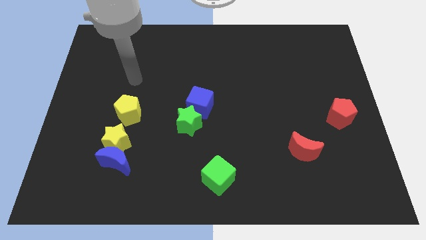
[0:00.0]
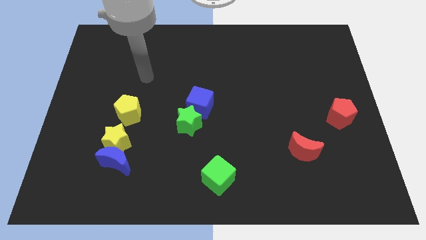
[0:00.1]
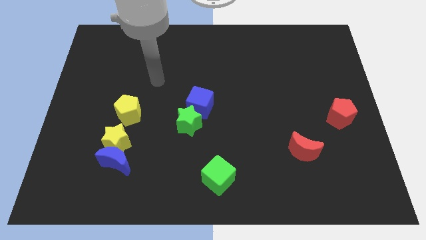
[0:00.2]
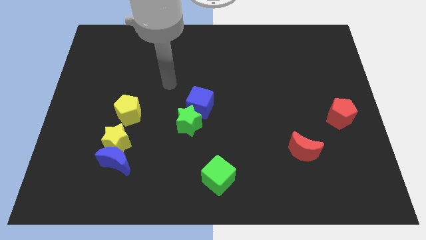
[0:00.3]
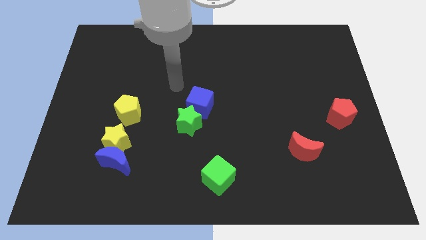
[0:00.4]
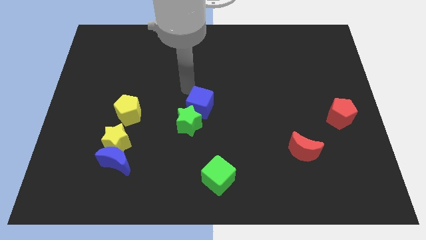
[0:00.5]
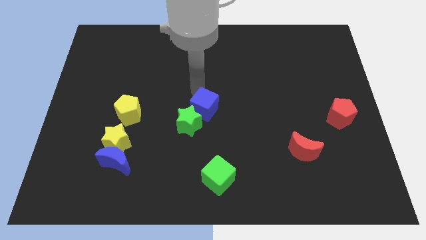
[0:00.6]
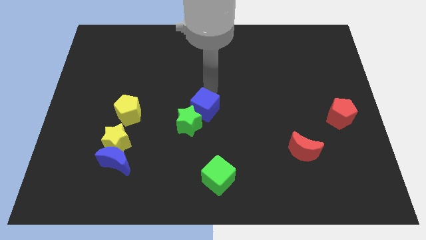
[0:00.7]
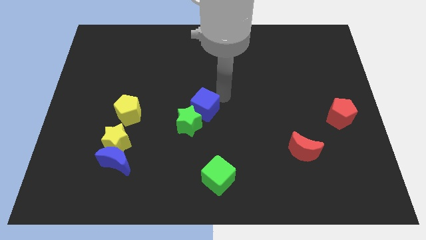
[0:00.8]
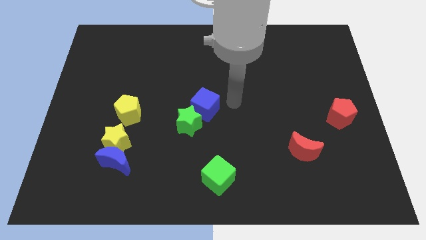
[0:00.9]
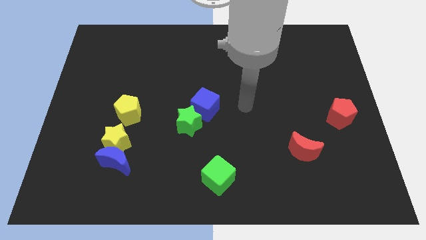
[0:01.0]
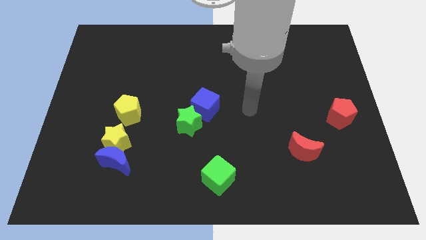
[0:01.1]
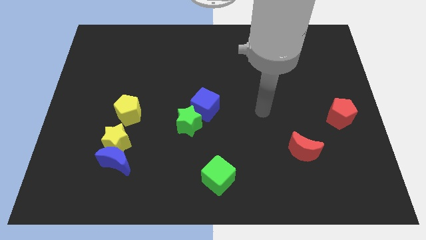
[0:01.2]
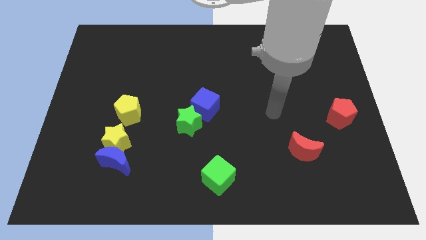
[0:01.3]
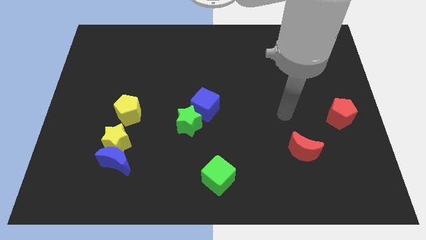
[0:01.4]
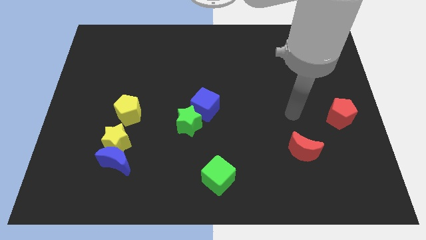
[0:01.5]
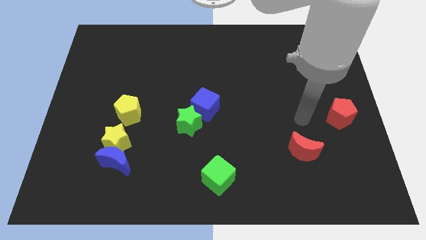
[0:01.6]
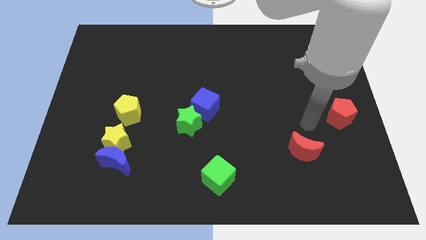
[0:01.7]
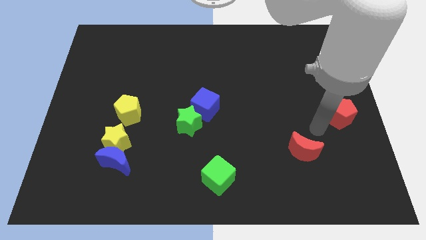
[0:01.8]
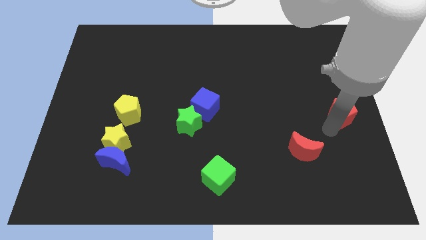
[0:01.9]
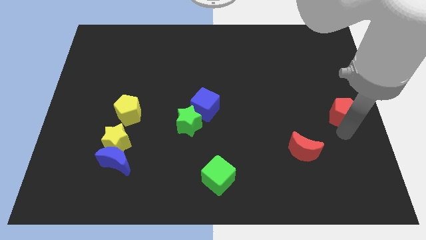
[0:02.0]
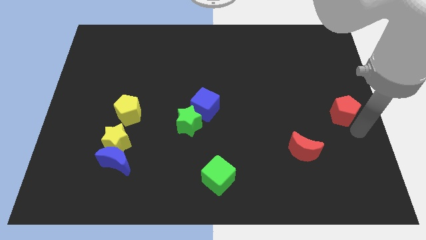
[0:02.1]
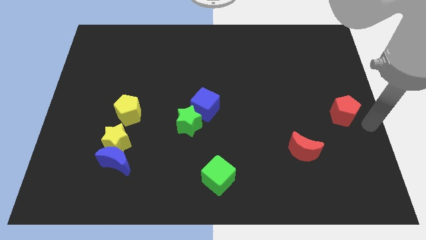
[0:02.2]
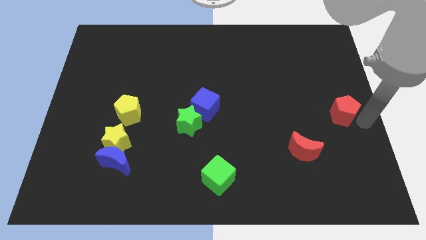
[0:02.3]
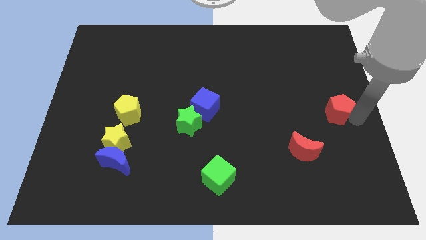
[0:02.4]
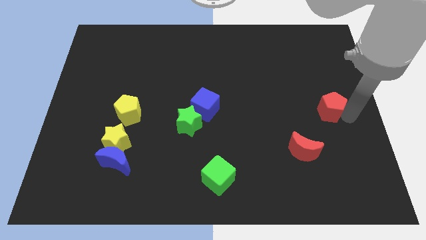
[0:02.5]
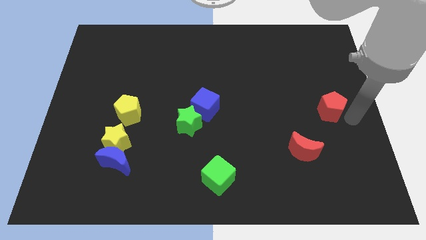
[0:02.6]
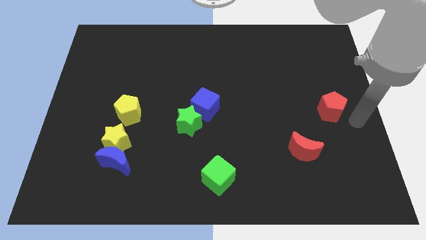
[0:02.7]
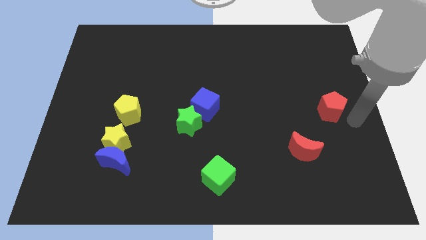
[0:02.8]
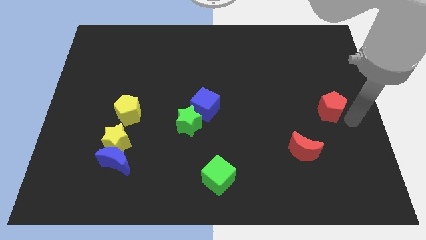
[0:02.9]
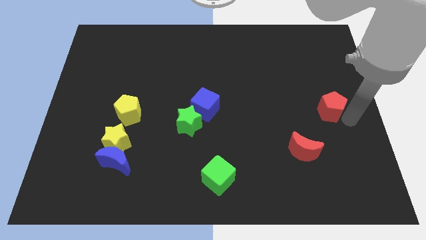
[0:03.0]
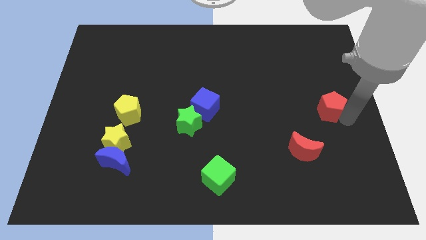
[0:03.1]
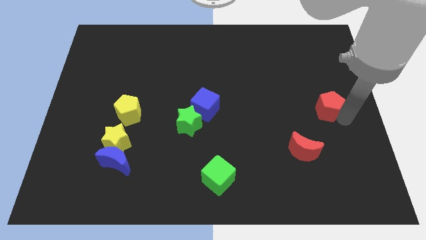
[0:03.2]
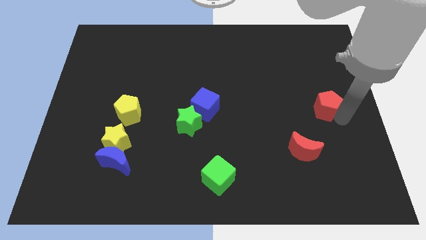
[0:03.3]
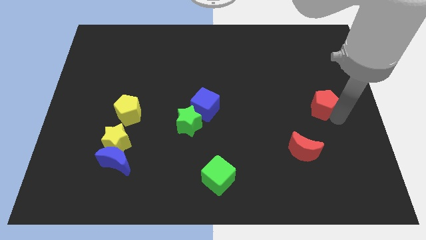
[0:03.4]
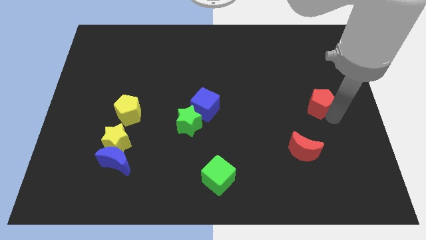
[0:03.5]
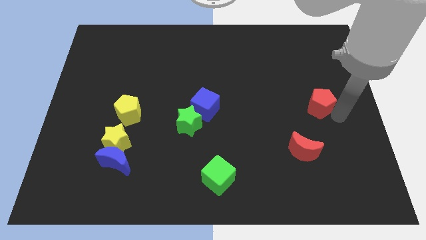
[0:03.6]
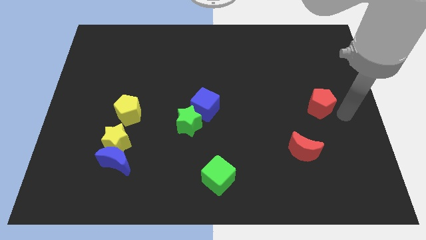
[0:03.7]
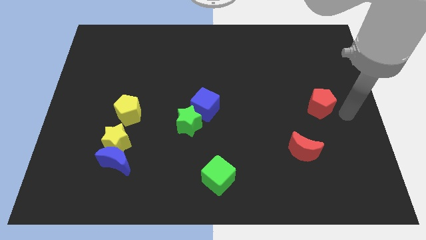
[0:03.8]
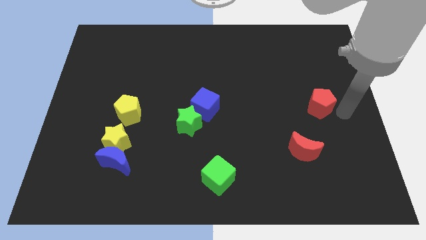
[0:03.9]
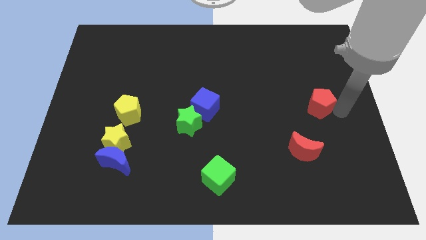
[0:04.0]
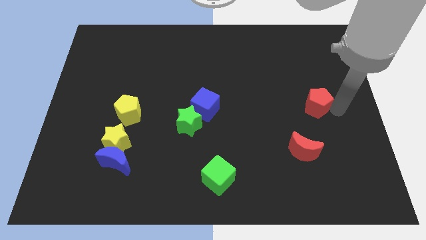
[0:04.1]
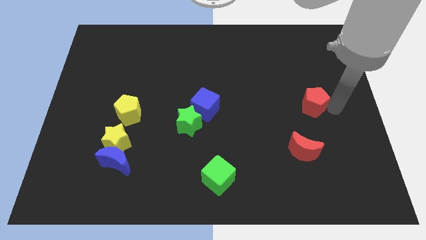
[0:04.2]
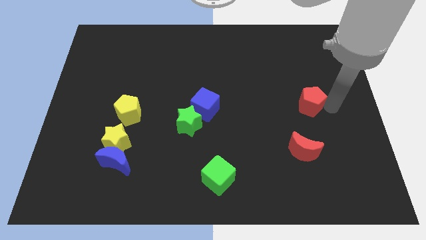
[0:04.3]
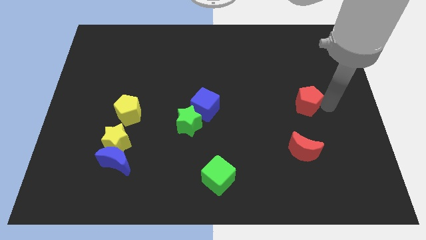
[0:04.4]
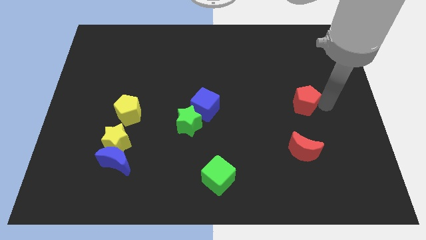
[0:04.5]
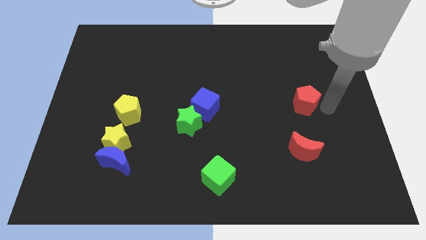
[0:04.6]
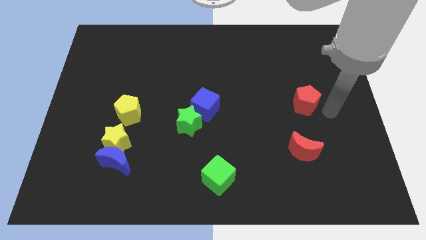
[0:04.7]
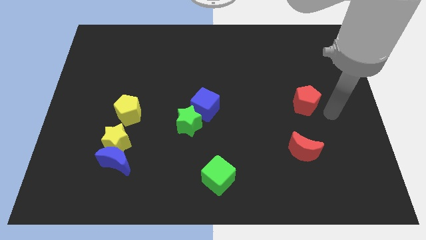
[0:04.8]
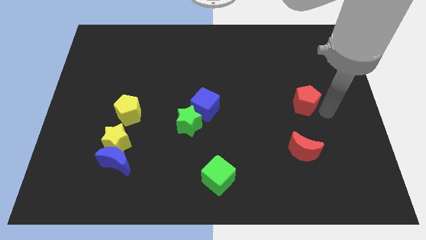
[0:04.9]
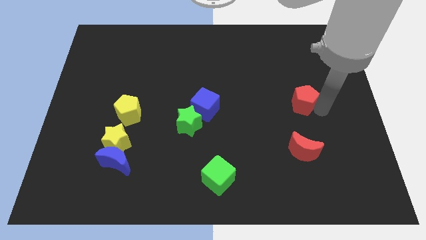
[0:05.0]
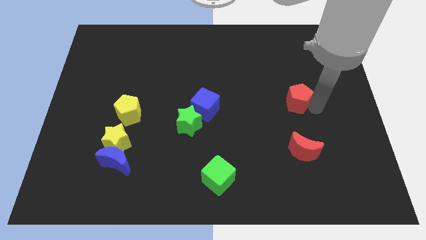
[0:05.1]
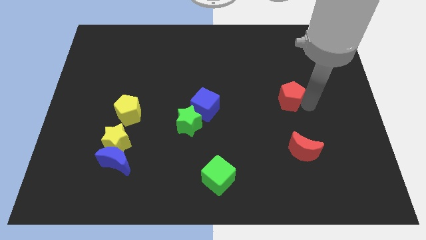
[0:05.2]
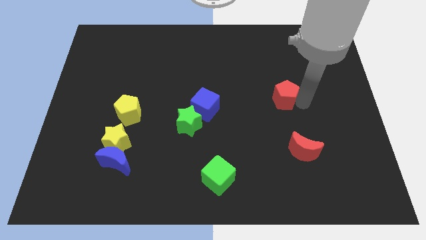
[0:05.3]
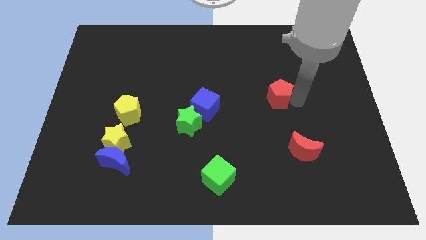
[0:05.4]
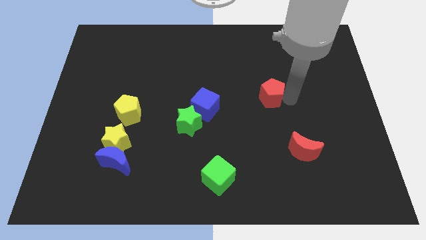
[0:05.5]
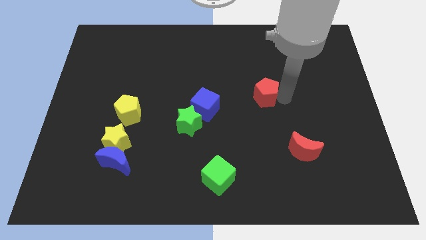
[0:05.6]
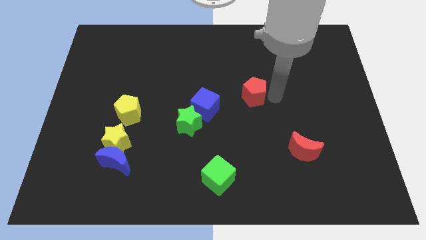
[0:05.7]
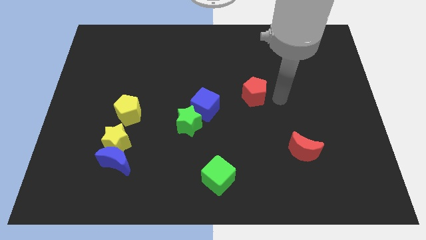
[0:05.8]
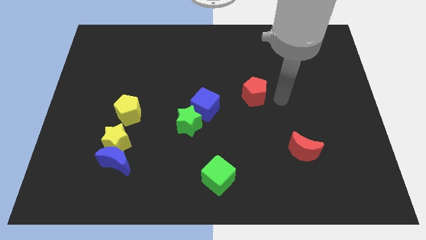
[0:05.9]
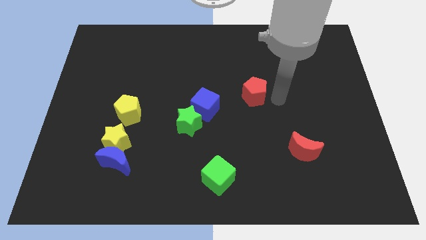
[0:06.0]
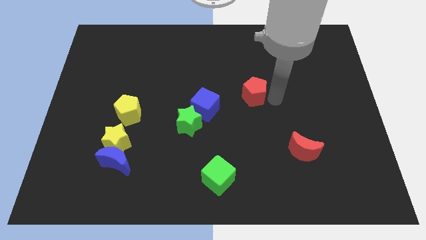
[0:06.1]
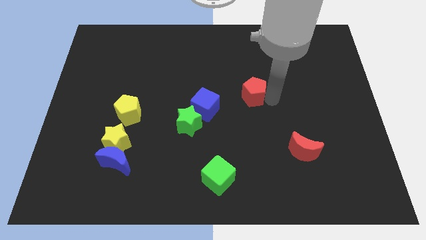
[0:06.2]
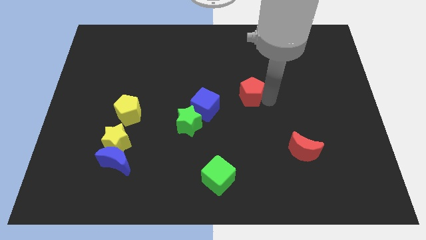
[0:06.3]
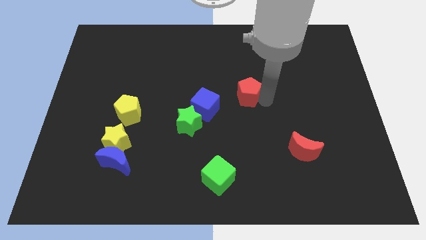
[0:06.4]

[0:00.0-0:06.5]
slide the red pentagon to the top right of the blue cube
